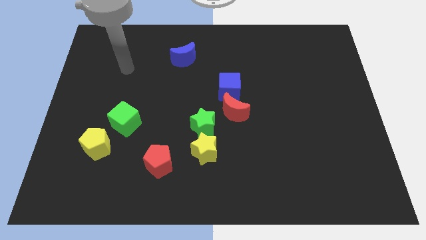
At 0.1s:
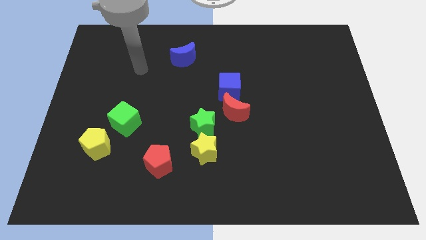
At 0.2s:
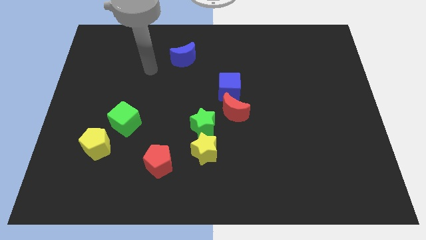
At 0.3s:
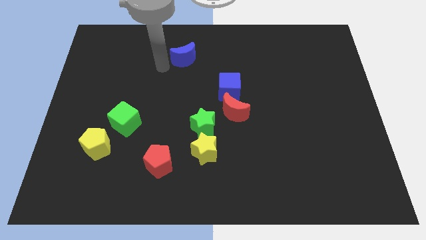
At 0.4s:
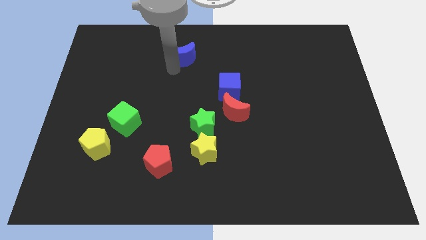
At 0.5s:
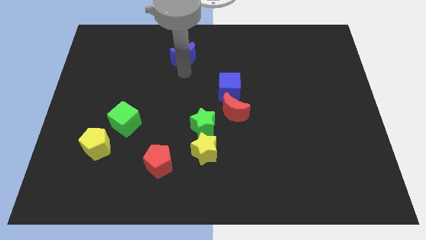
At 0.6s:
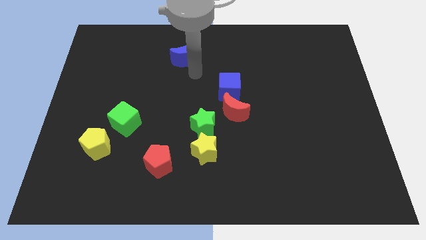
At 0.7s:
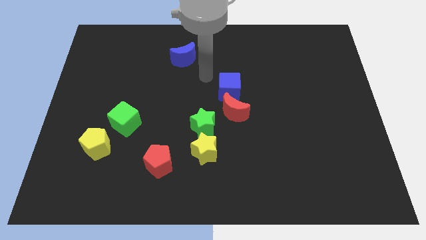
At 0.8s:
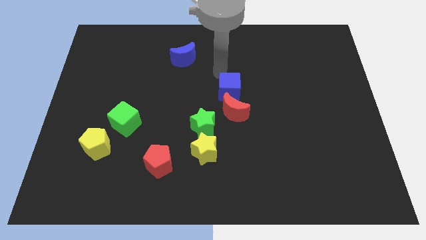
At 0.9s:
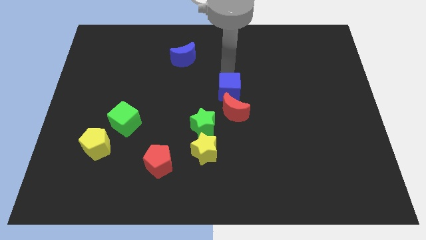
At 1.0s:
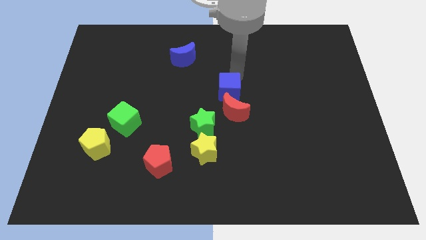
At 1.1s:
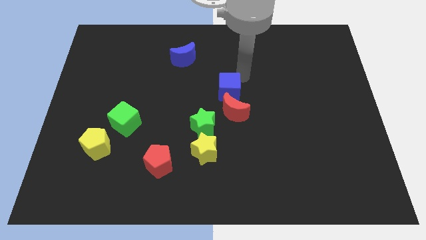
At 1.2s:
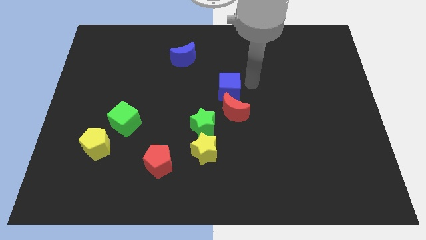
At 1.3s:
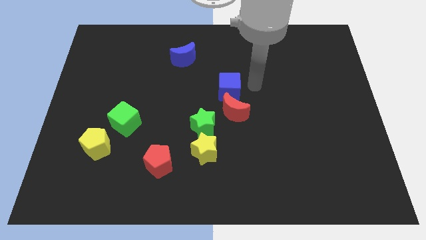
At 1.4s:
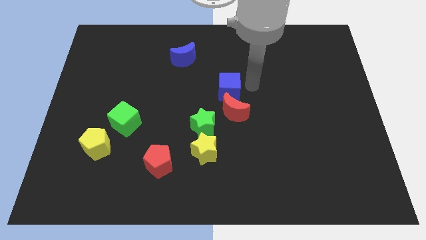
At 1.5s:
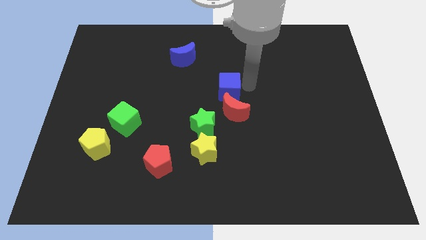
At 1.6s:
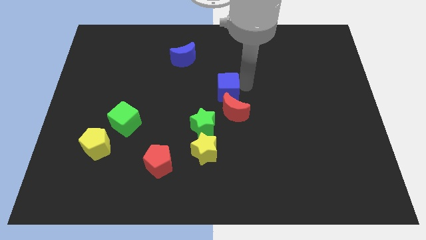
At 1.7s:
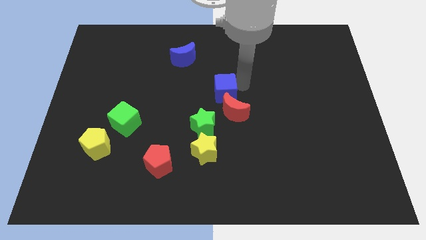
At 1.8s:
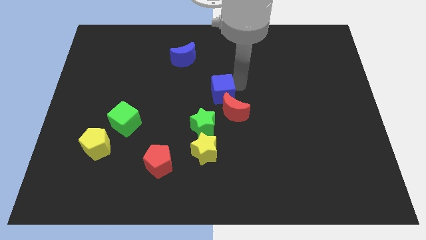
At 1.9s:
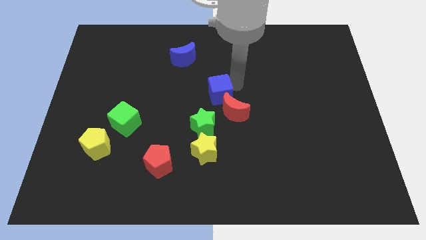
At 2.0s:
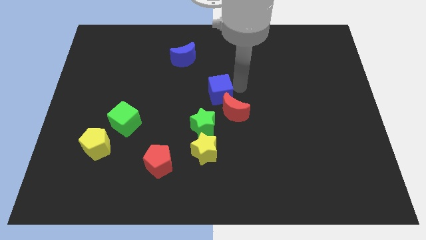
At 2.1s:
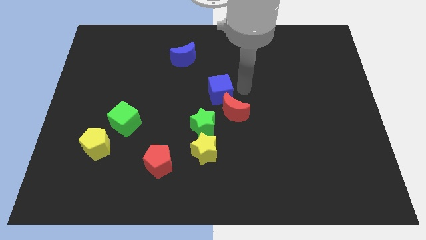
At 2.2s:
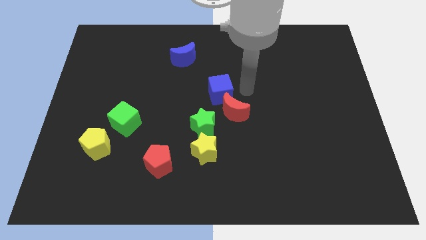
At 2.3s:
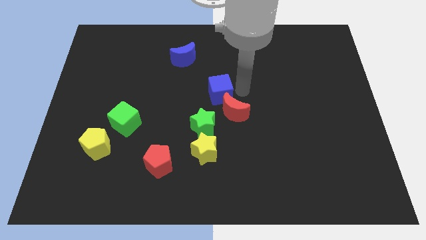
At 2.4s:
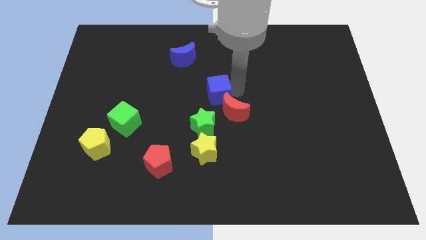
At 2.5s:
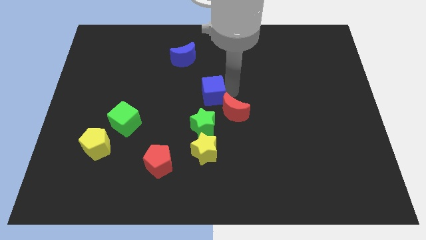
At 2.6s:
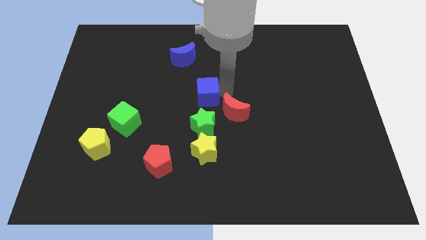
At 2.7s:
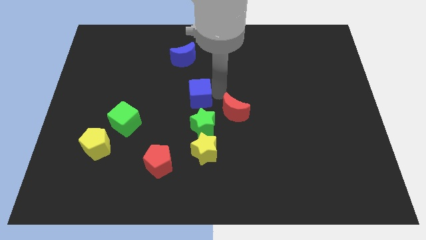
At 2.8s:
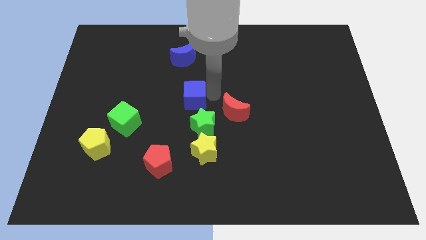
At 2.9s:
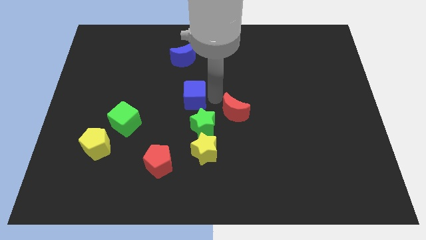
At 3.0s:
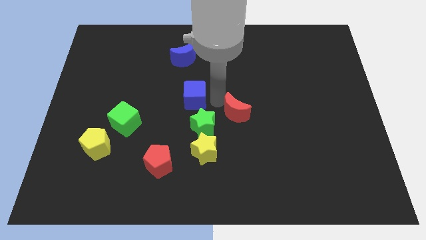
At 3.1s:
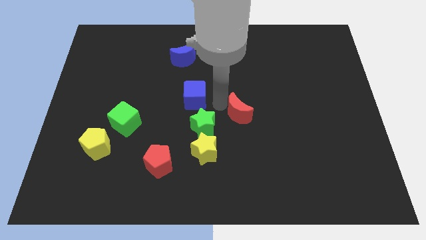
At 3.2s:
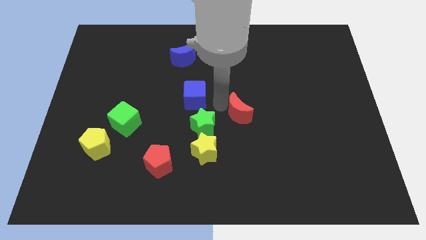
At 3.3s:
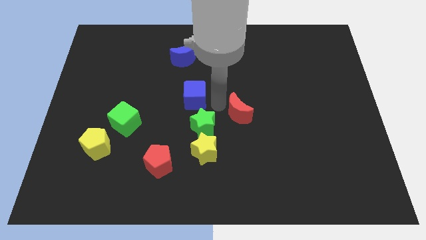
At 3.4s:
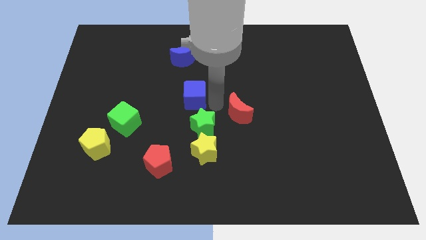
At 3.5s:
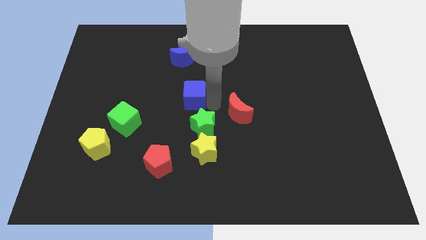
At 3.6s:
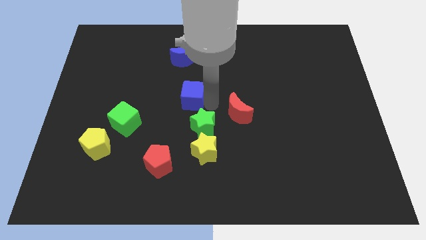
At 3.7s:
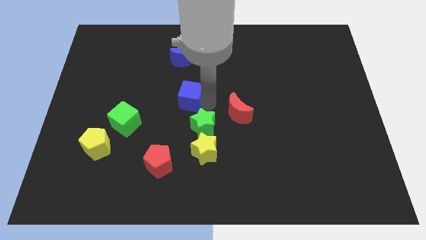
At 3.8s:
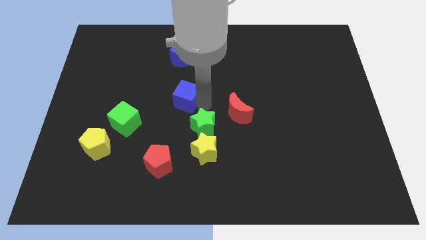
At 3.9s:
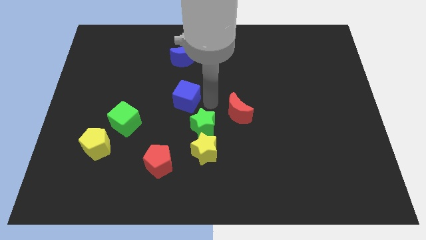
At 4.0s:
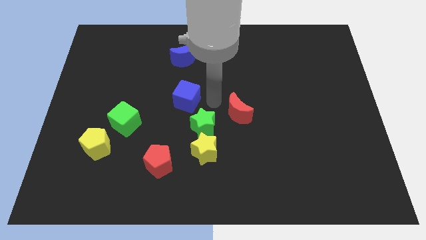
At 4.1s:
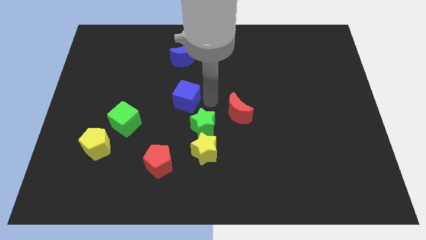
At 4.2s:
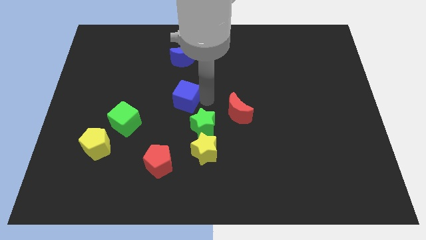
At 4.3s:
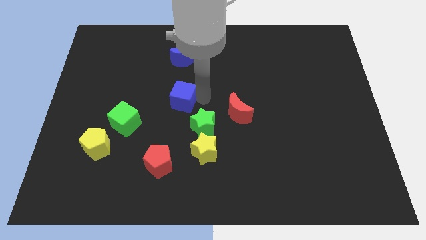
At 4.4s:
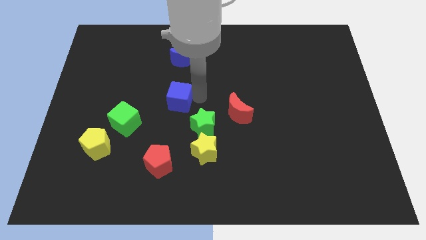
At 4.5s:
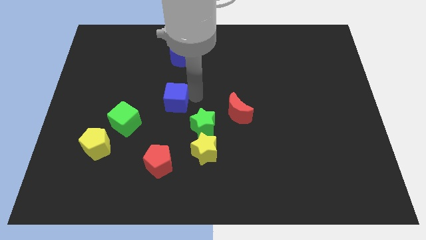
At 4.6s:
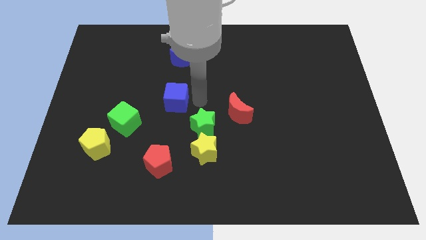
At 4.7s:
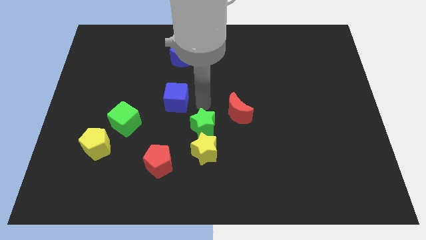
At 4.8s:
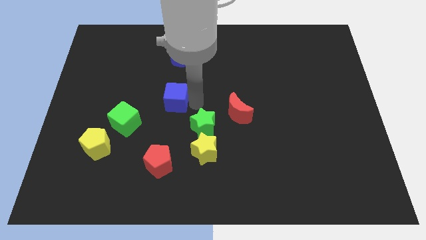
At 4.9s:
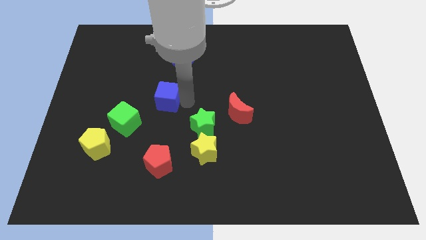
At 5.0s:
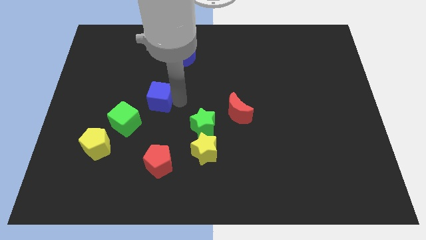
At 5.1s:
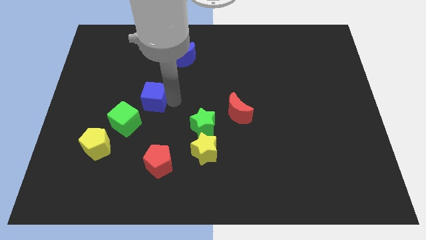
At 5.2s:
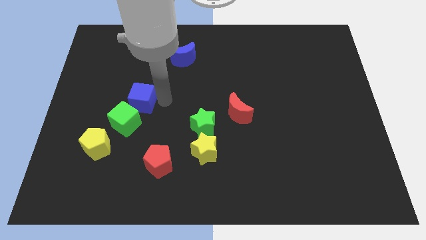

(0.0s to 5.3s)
slide the blue cube left

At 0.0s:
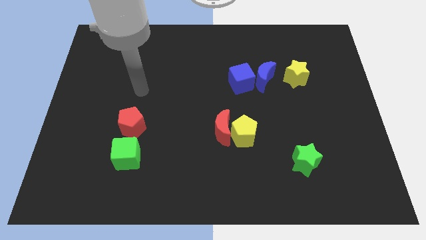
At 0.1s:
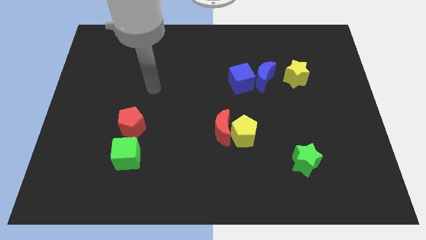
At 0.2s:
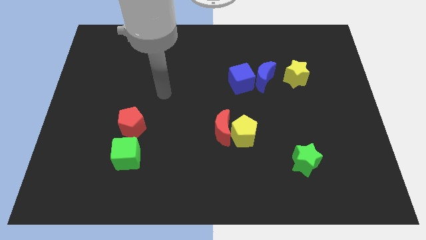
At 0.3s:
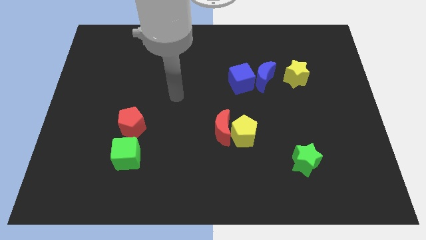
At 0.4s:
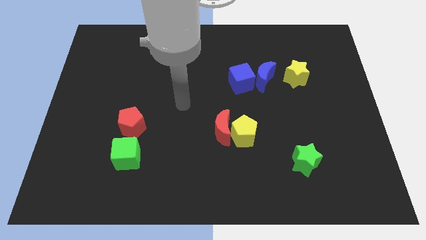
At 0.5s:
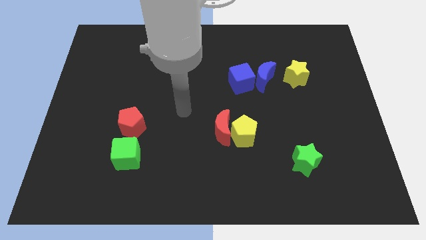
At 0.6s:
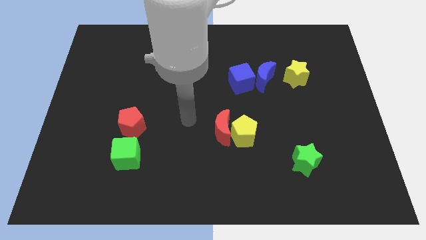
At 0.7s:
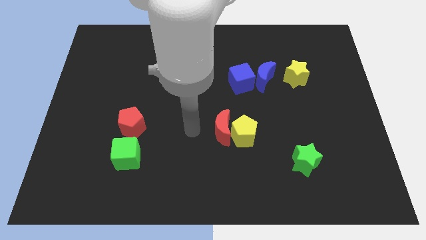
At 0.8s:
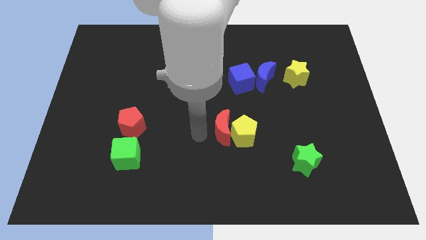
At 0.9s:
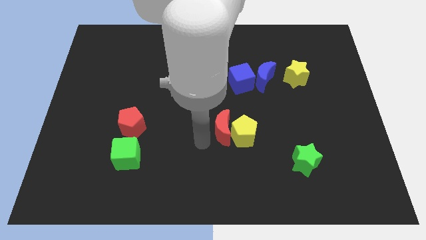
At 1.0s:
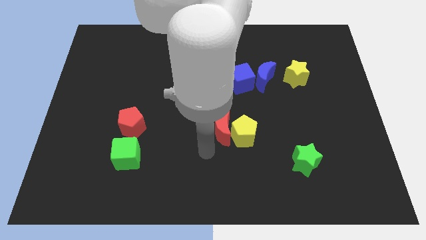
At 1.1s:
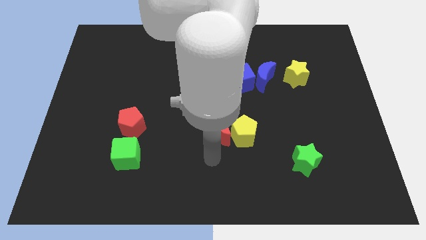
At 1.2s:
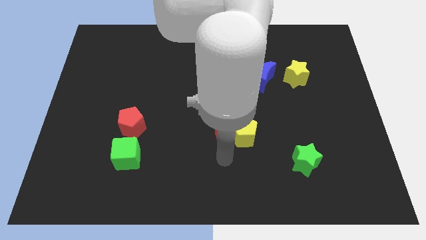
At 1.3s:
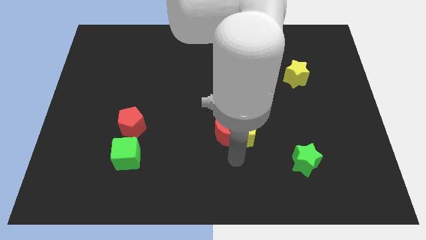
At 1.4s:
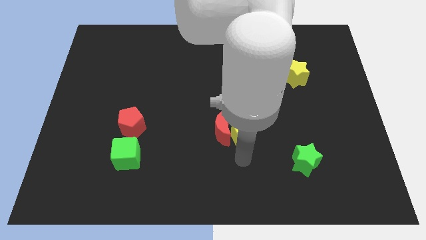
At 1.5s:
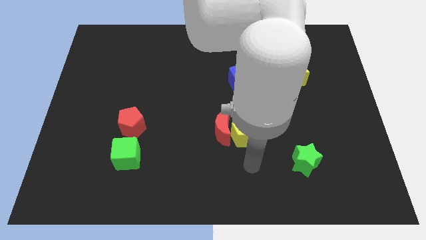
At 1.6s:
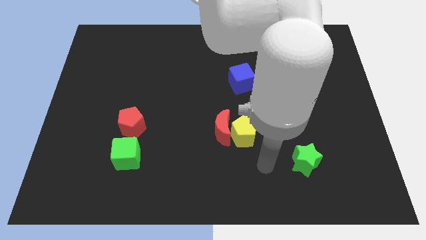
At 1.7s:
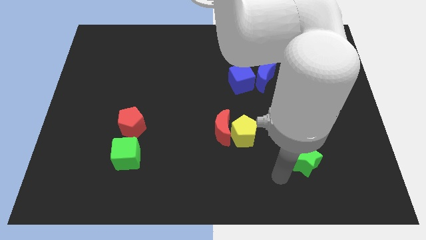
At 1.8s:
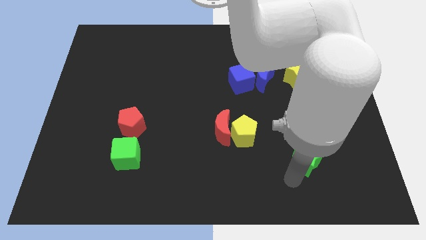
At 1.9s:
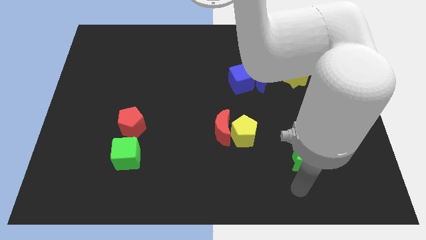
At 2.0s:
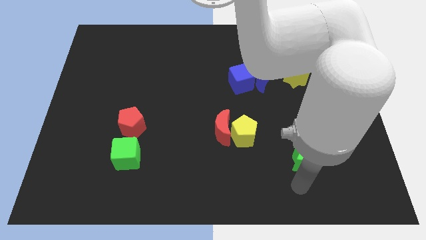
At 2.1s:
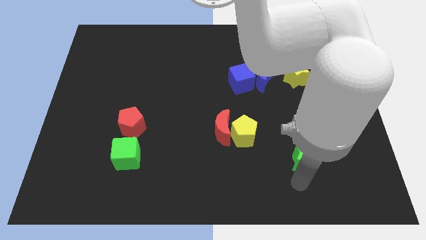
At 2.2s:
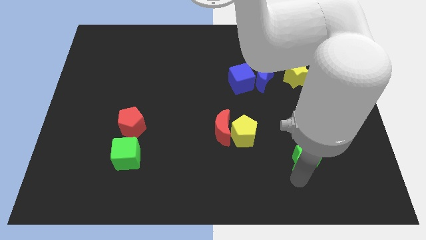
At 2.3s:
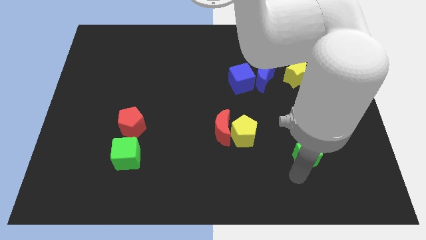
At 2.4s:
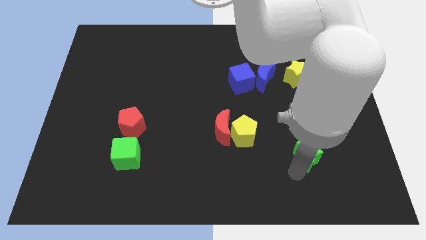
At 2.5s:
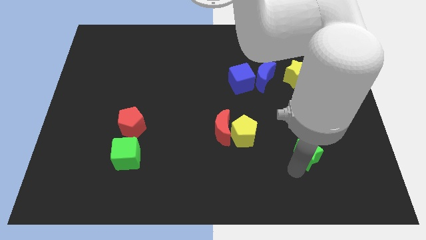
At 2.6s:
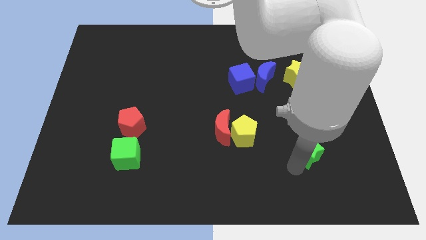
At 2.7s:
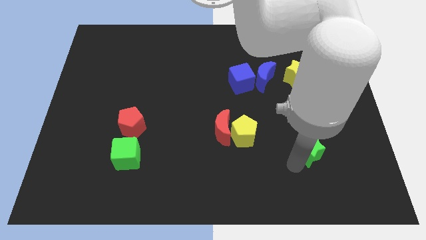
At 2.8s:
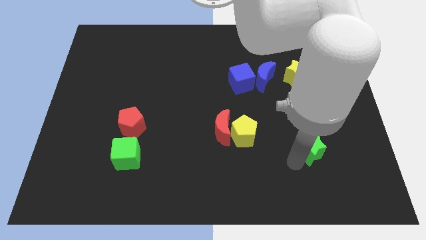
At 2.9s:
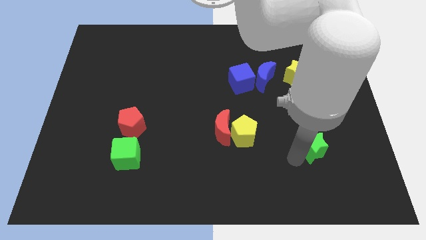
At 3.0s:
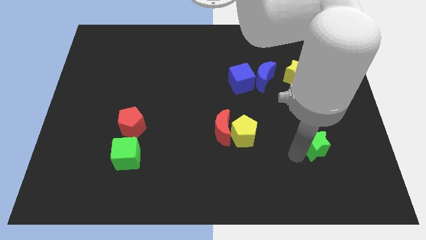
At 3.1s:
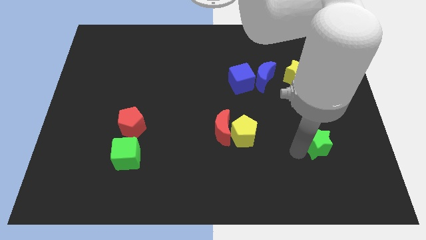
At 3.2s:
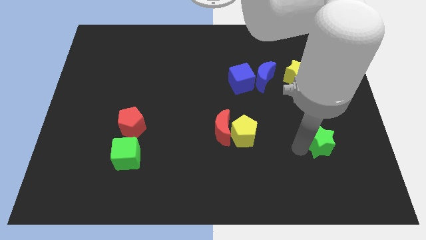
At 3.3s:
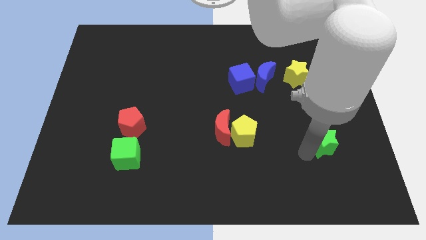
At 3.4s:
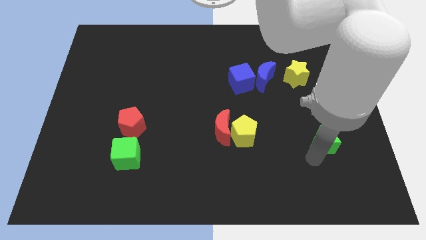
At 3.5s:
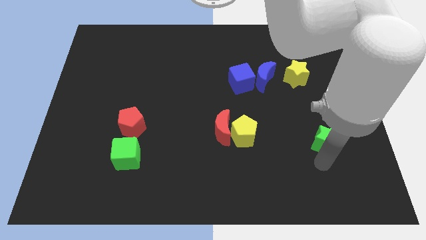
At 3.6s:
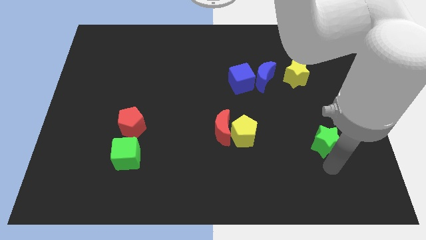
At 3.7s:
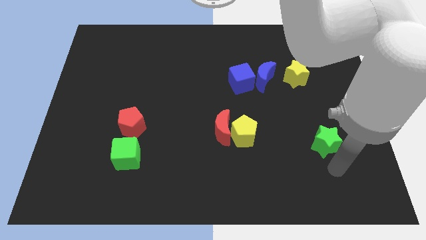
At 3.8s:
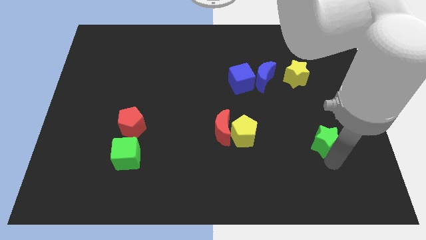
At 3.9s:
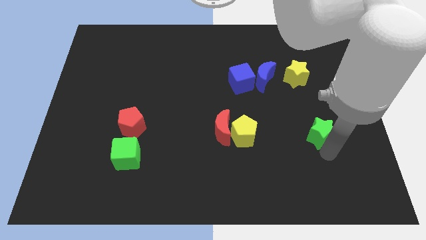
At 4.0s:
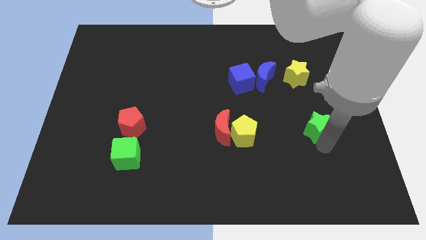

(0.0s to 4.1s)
move the green star slightly upwards
